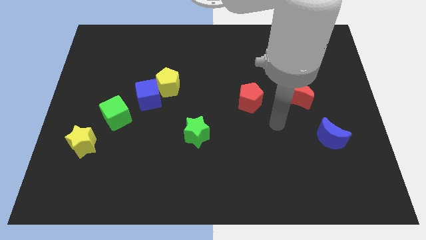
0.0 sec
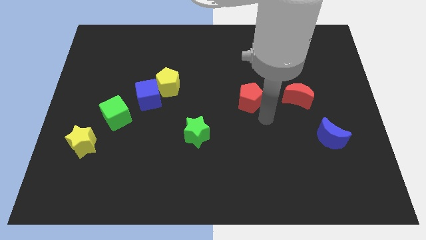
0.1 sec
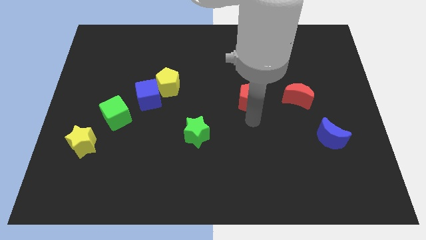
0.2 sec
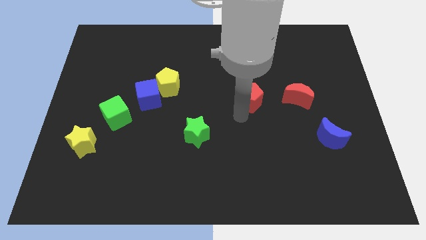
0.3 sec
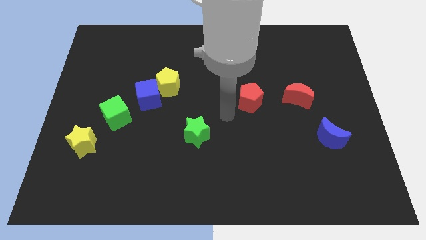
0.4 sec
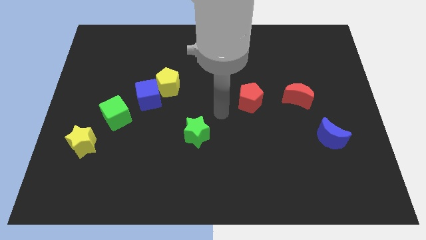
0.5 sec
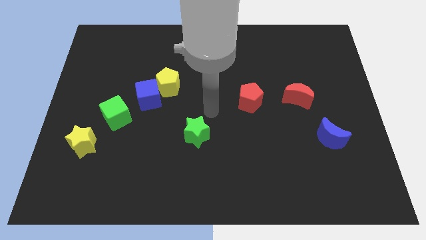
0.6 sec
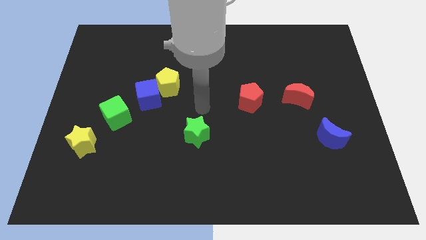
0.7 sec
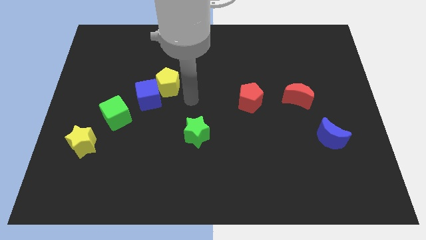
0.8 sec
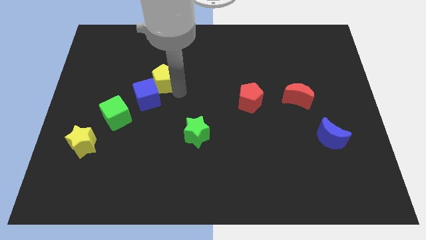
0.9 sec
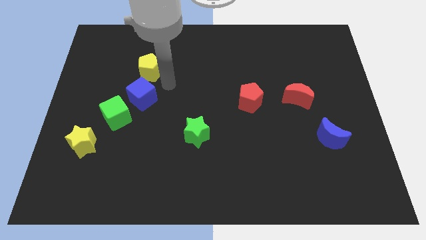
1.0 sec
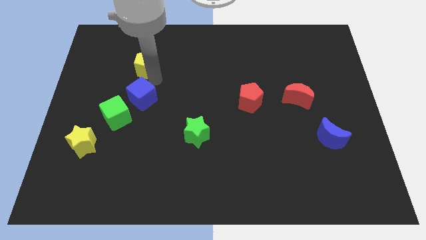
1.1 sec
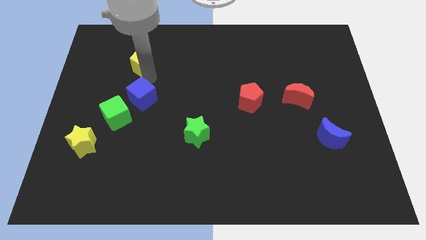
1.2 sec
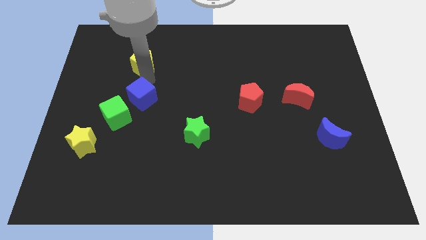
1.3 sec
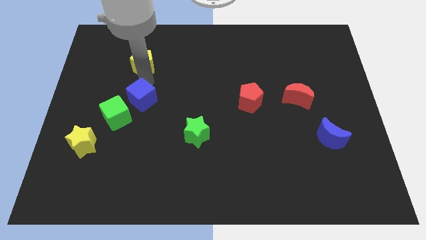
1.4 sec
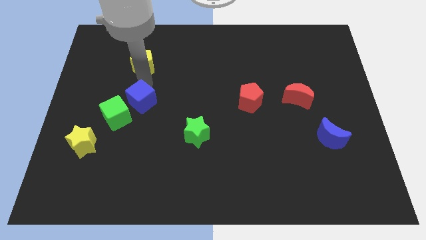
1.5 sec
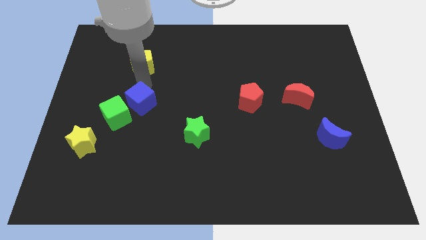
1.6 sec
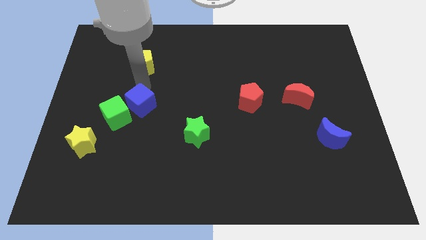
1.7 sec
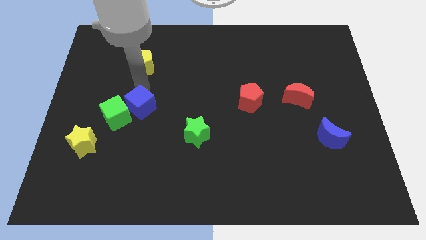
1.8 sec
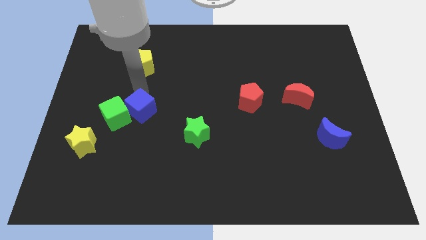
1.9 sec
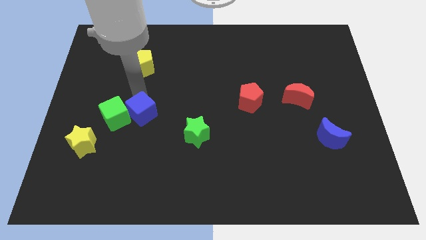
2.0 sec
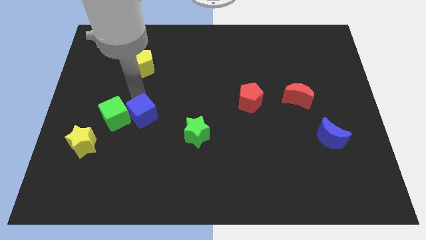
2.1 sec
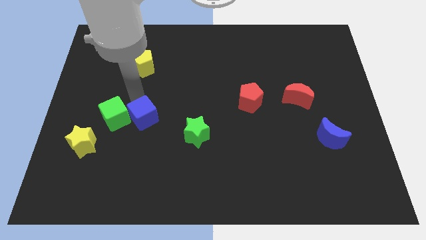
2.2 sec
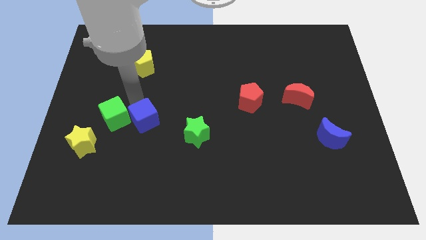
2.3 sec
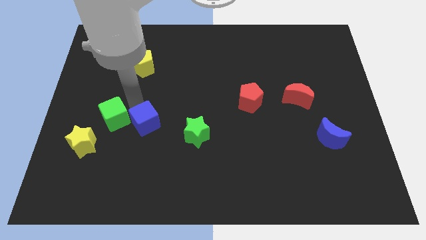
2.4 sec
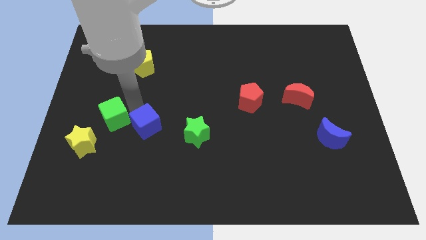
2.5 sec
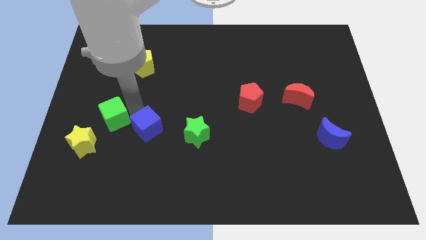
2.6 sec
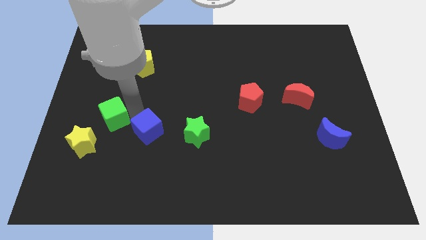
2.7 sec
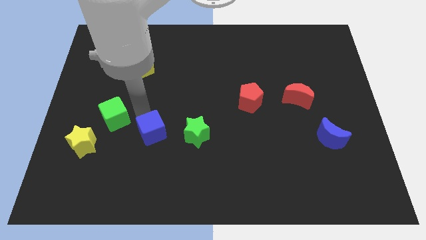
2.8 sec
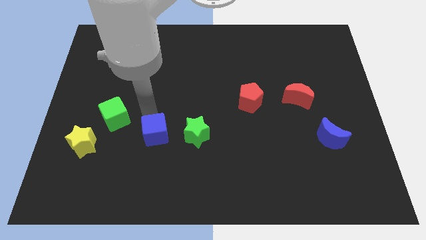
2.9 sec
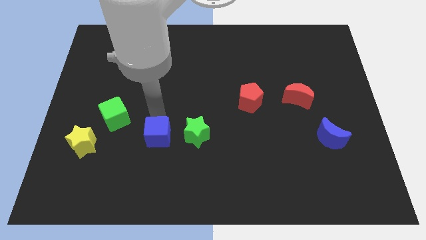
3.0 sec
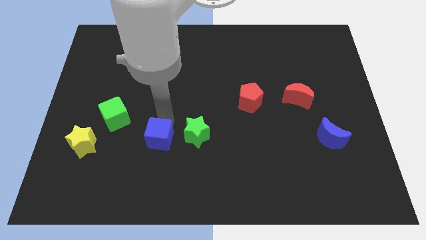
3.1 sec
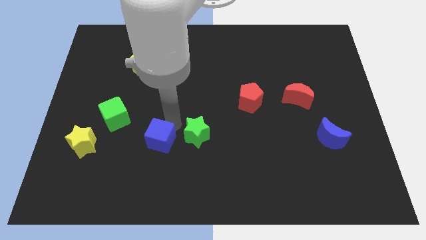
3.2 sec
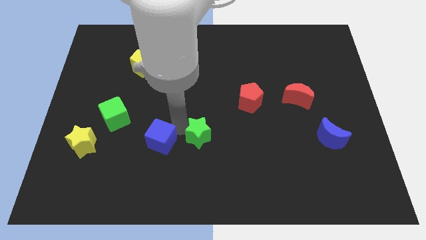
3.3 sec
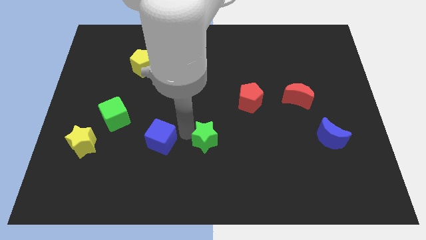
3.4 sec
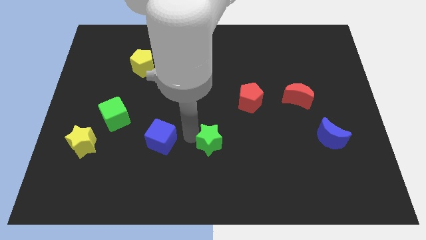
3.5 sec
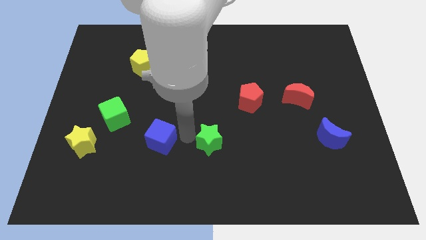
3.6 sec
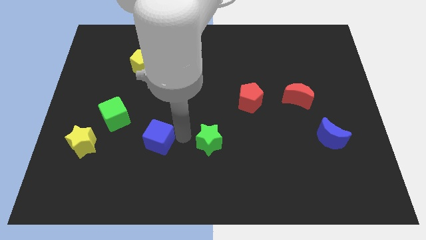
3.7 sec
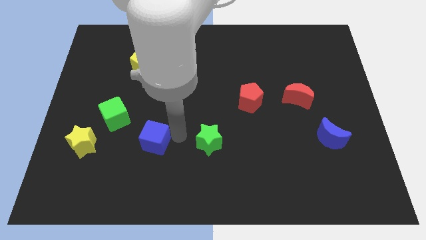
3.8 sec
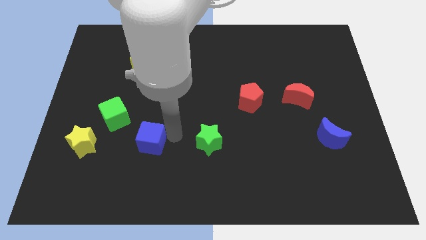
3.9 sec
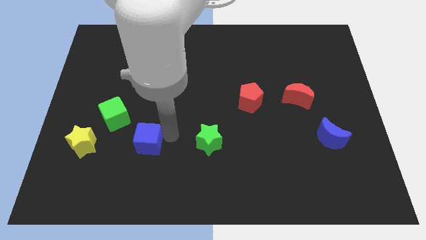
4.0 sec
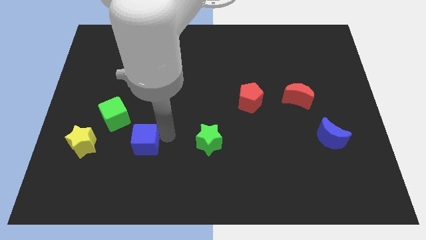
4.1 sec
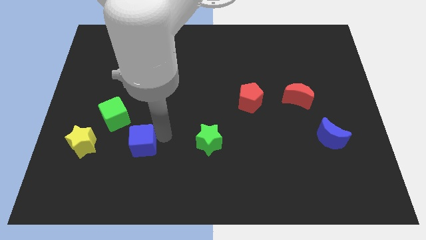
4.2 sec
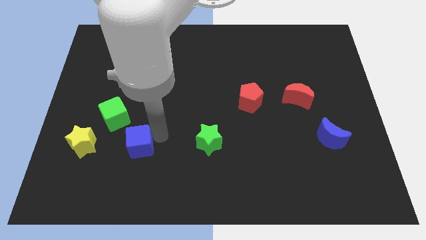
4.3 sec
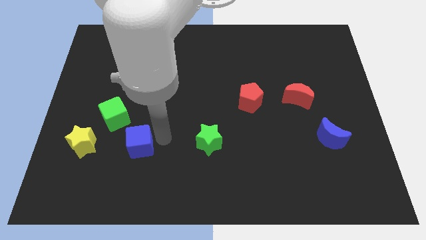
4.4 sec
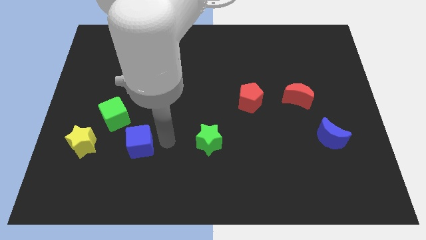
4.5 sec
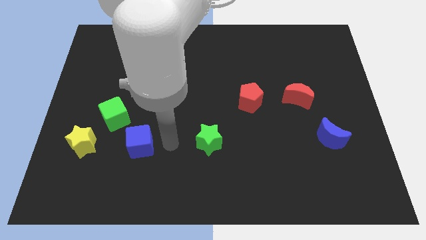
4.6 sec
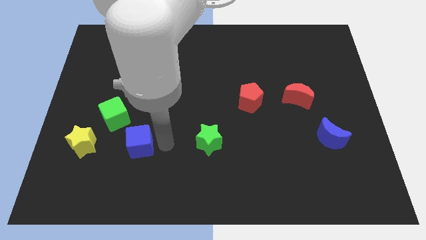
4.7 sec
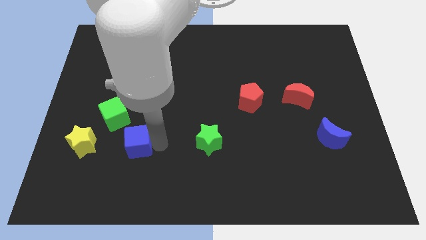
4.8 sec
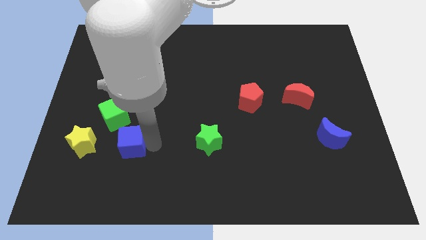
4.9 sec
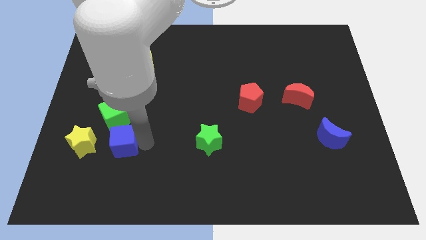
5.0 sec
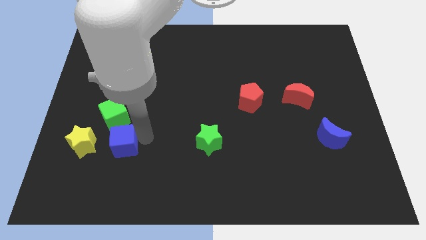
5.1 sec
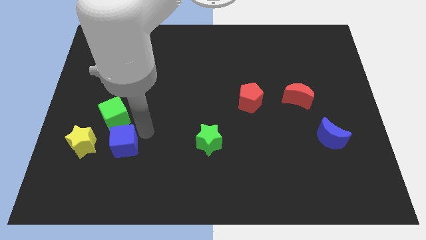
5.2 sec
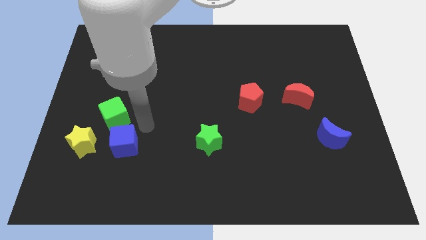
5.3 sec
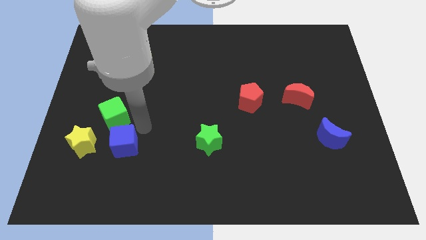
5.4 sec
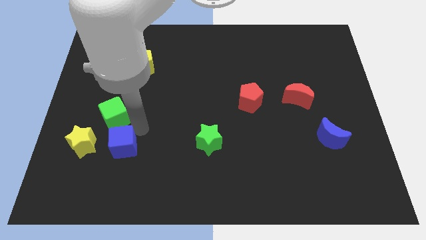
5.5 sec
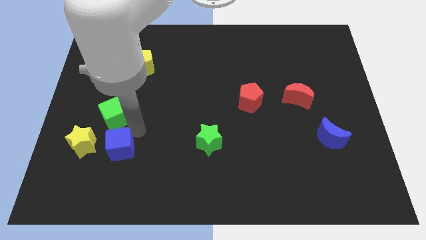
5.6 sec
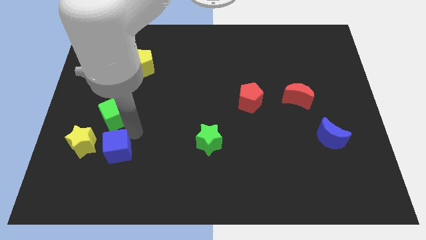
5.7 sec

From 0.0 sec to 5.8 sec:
push the blue cube to the bottom right side of the yellow star
